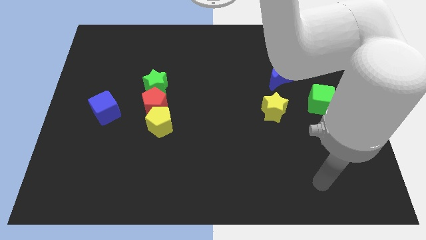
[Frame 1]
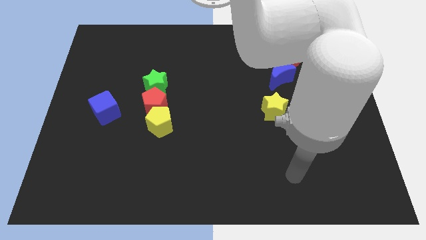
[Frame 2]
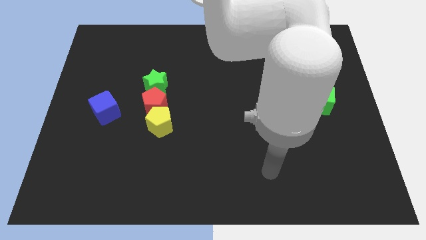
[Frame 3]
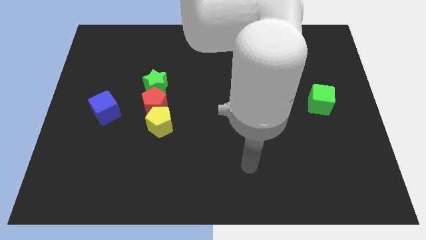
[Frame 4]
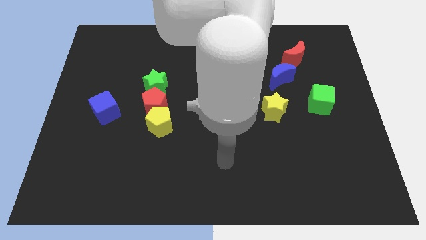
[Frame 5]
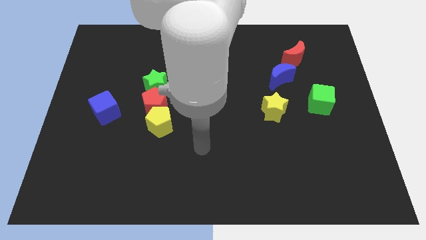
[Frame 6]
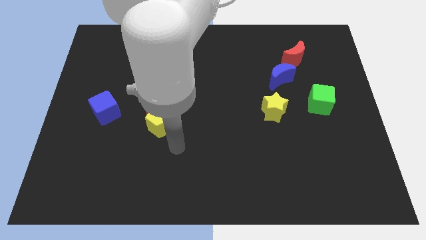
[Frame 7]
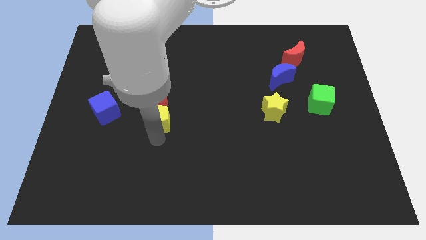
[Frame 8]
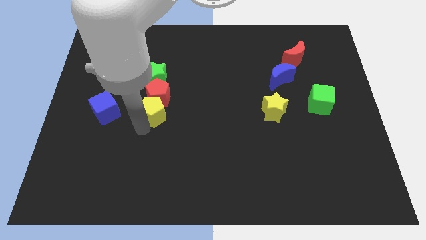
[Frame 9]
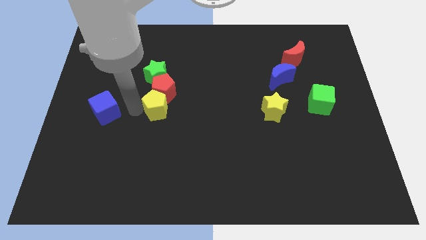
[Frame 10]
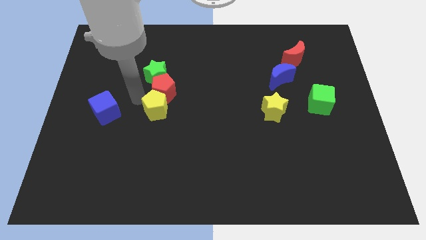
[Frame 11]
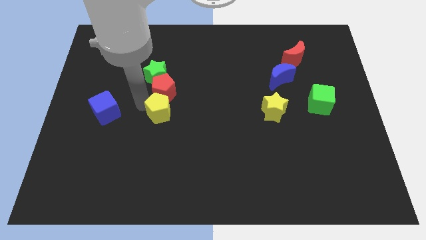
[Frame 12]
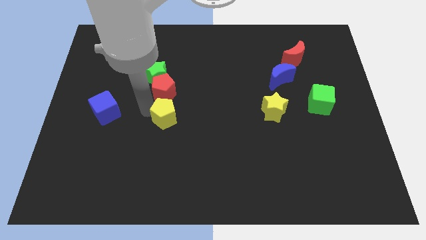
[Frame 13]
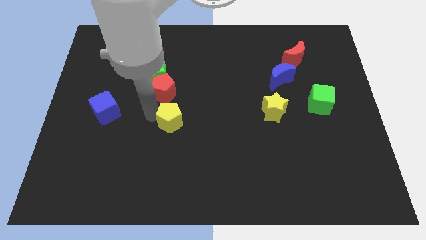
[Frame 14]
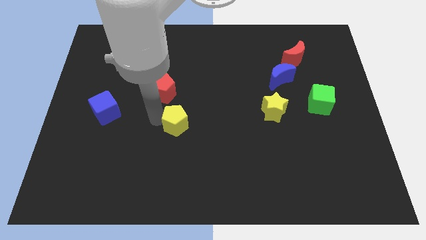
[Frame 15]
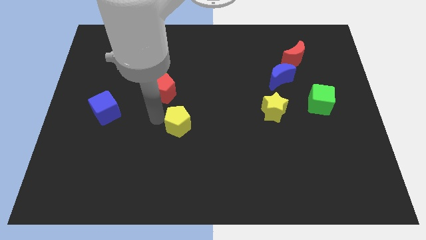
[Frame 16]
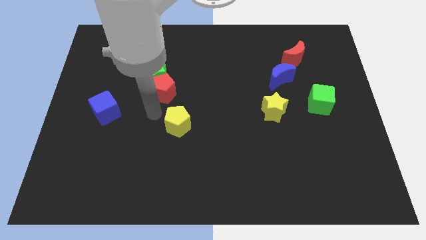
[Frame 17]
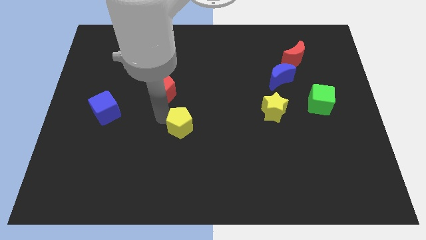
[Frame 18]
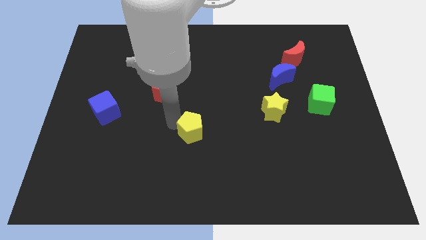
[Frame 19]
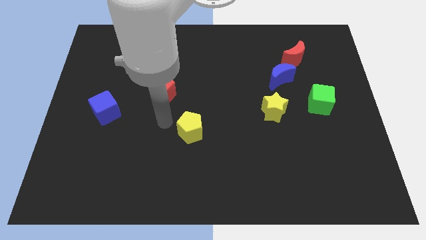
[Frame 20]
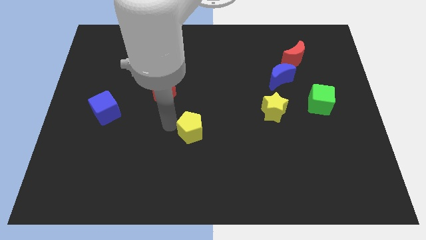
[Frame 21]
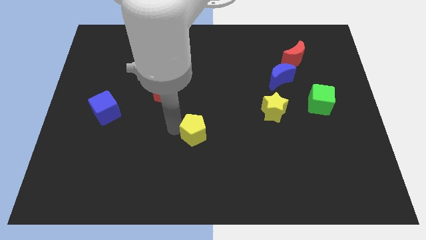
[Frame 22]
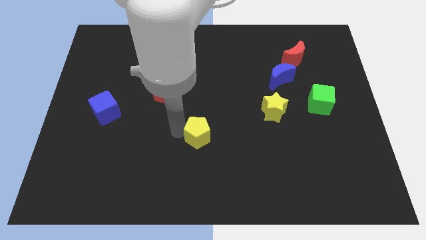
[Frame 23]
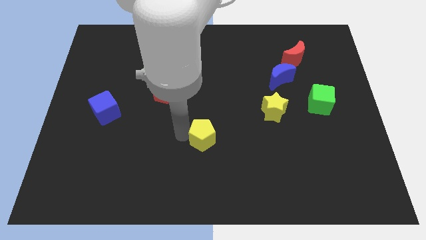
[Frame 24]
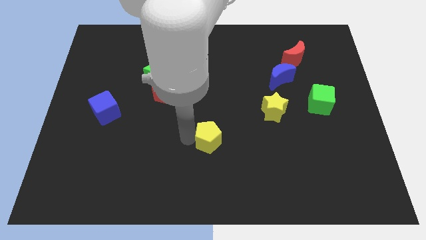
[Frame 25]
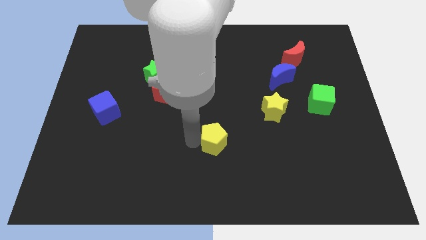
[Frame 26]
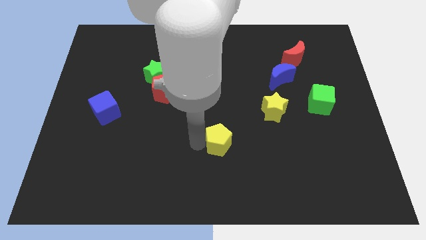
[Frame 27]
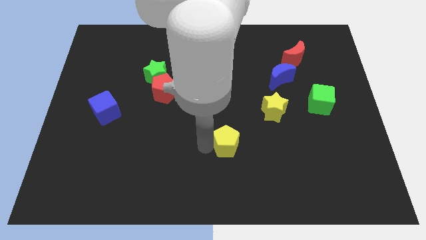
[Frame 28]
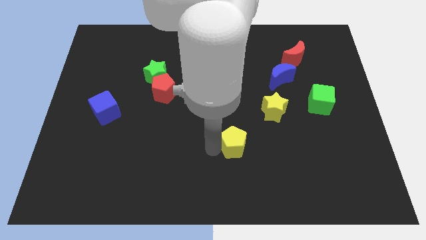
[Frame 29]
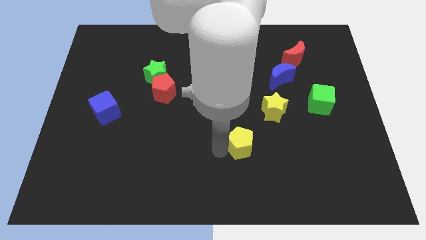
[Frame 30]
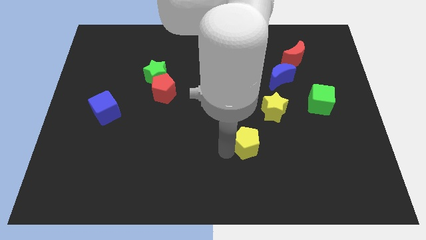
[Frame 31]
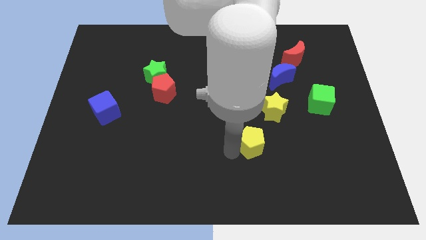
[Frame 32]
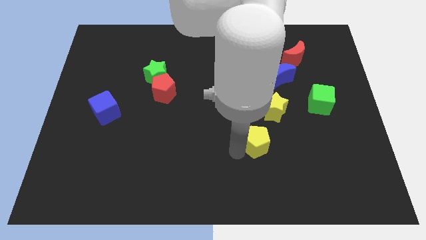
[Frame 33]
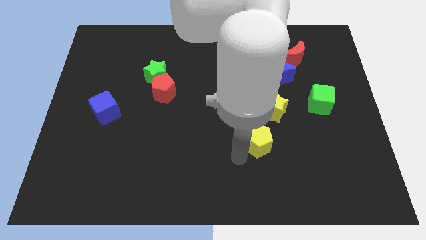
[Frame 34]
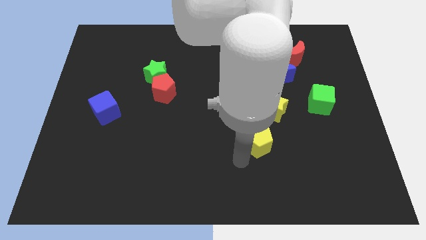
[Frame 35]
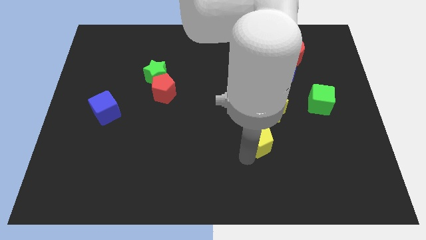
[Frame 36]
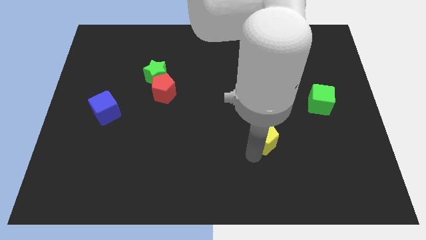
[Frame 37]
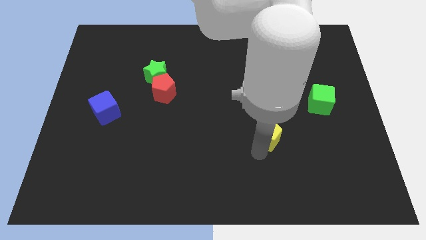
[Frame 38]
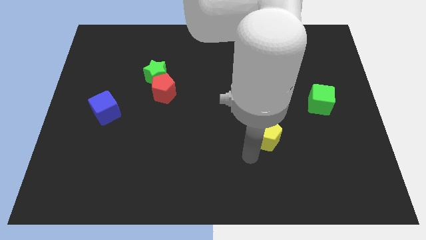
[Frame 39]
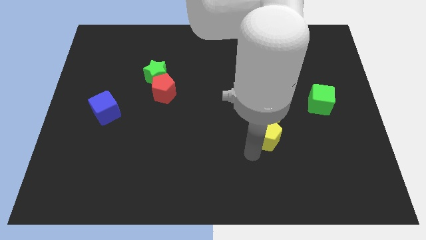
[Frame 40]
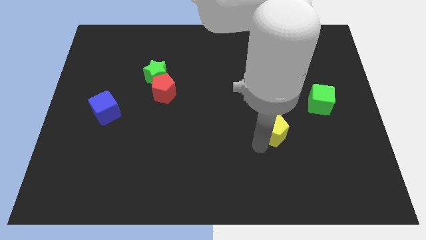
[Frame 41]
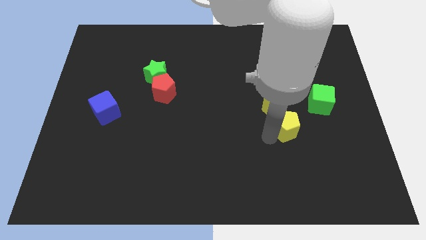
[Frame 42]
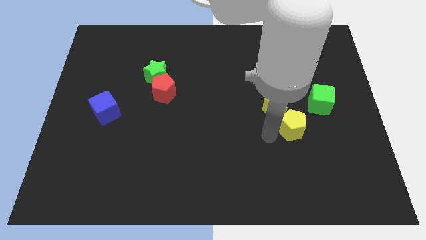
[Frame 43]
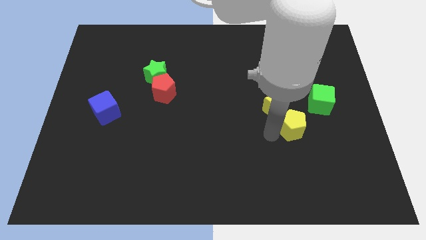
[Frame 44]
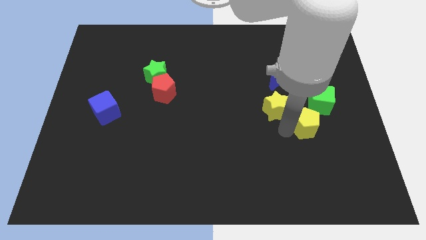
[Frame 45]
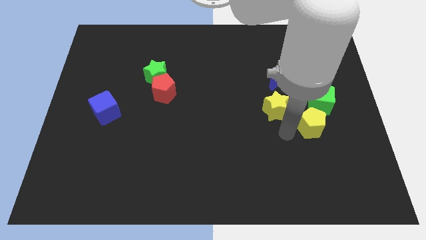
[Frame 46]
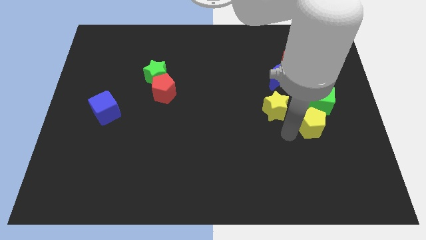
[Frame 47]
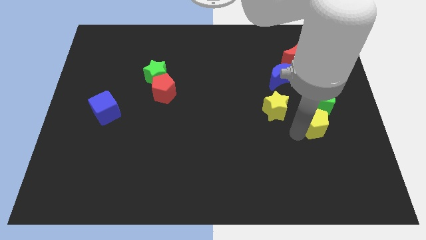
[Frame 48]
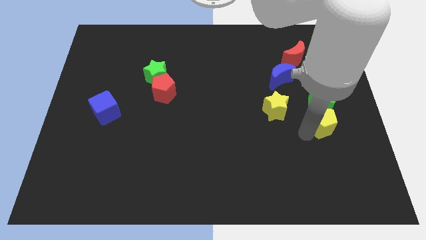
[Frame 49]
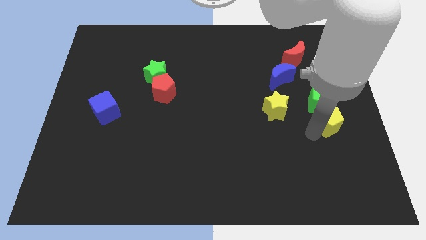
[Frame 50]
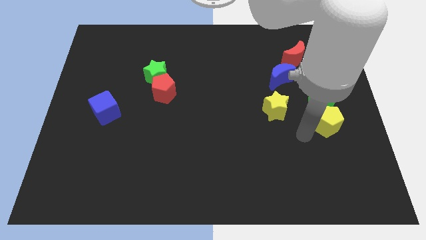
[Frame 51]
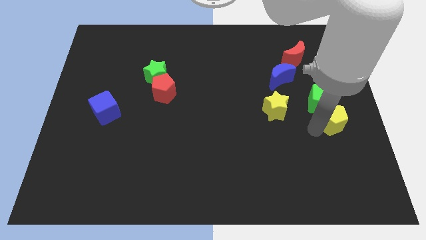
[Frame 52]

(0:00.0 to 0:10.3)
push the yellow pentagon to the right side

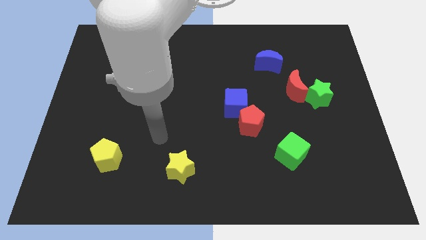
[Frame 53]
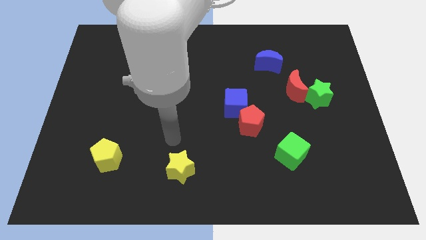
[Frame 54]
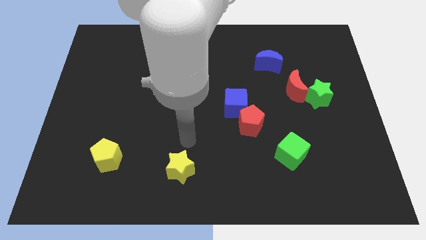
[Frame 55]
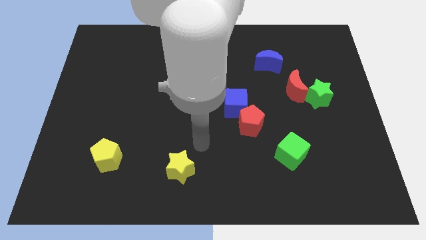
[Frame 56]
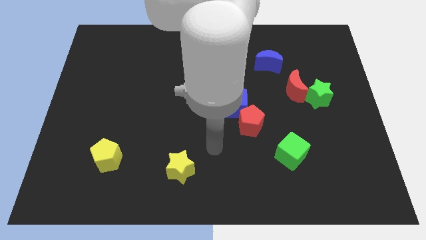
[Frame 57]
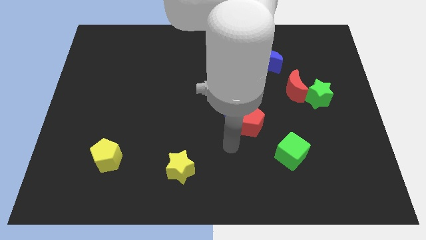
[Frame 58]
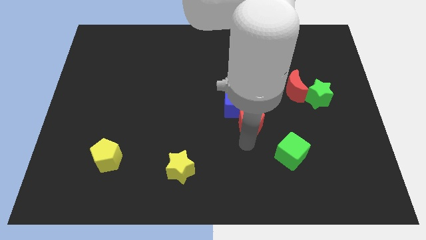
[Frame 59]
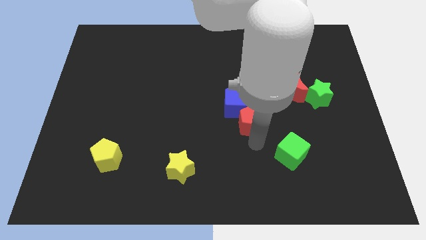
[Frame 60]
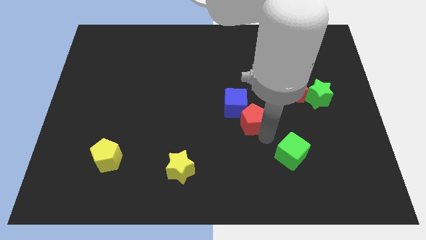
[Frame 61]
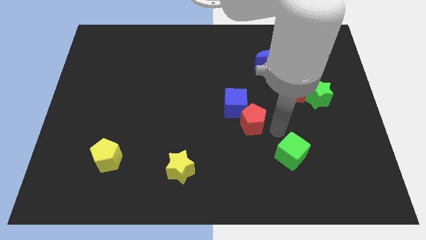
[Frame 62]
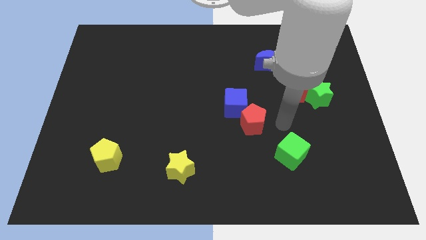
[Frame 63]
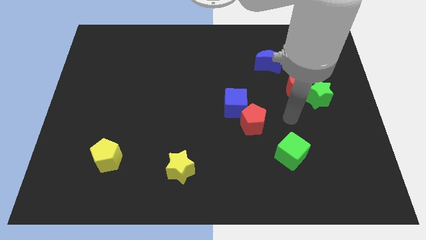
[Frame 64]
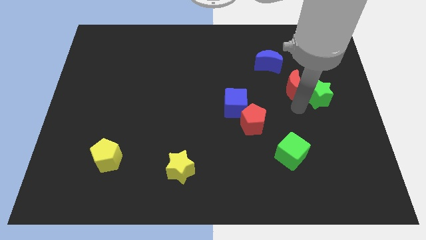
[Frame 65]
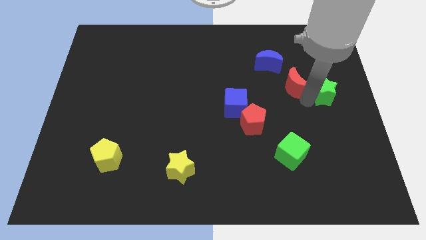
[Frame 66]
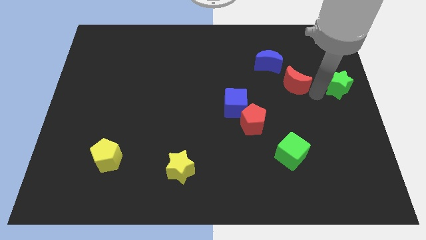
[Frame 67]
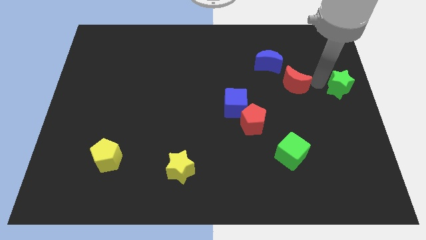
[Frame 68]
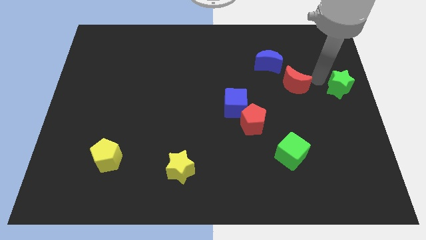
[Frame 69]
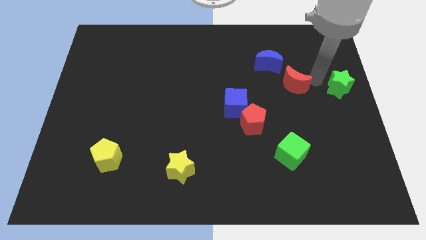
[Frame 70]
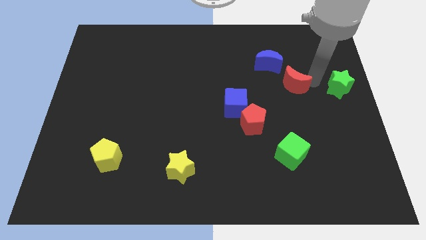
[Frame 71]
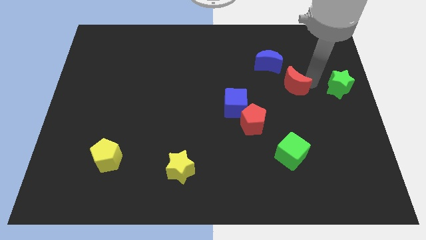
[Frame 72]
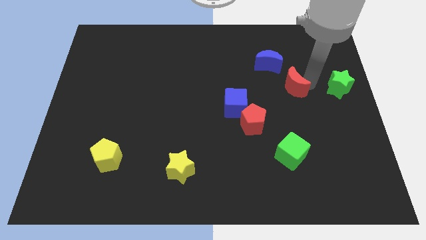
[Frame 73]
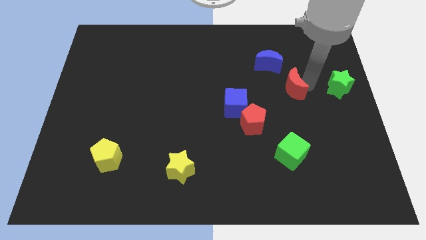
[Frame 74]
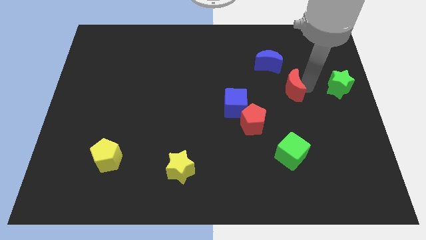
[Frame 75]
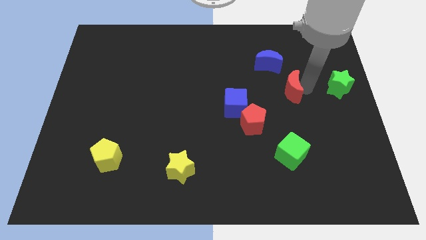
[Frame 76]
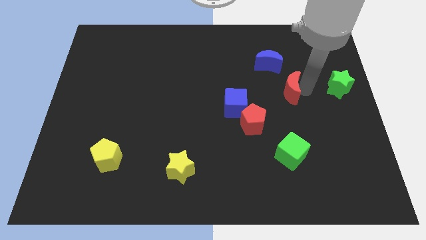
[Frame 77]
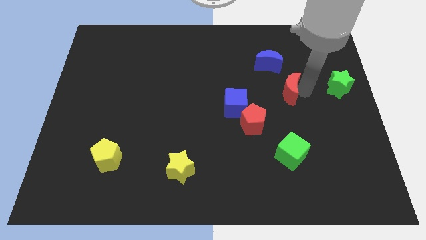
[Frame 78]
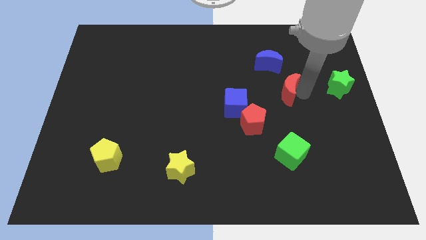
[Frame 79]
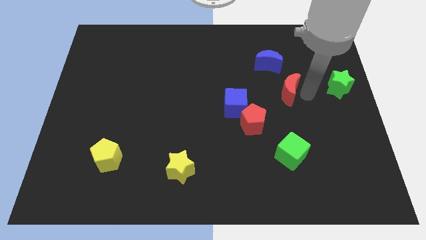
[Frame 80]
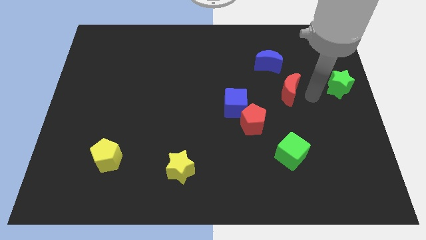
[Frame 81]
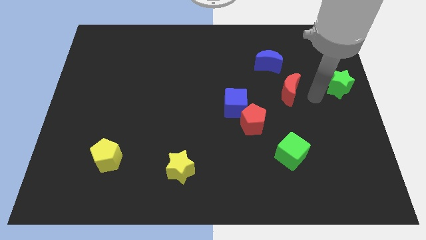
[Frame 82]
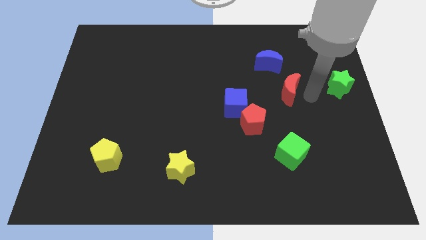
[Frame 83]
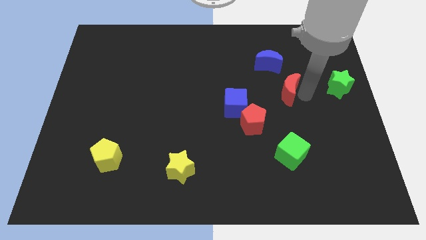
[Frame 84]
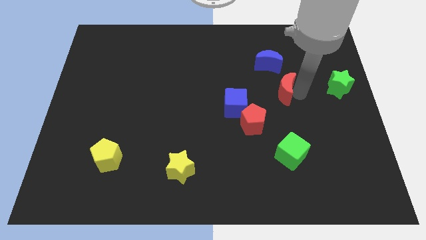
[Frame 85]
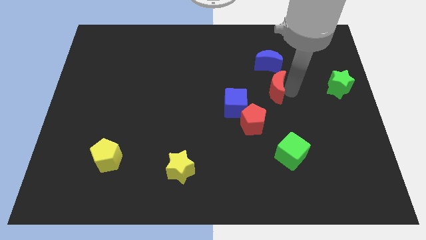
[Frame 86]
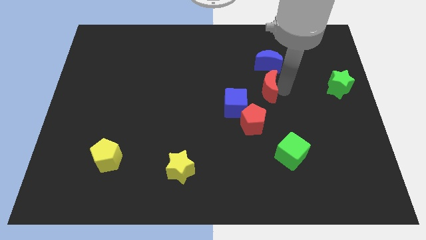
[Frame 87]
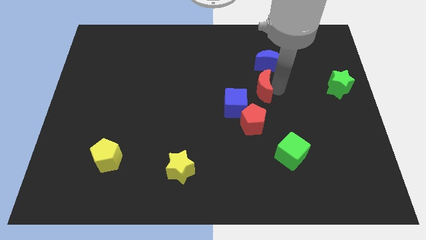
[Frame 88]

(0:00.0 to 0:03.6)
move the red moon to the middle of the board
